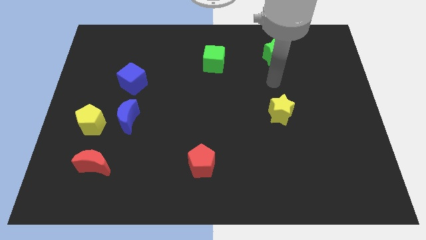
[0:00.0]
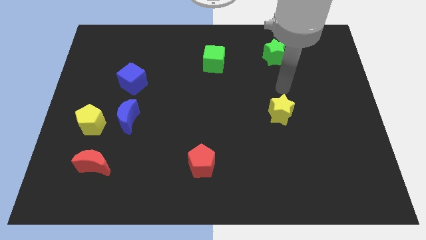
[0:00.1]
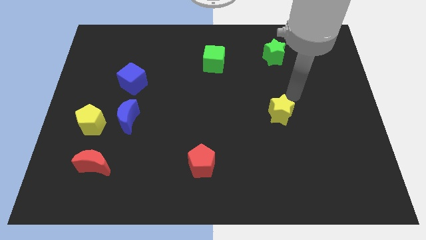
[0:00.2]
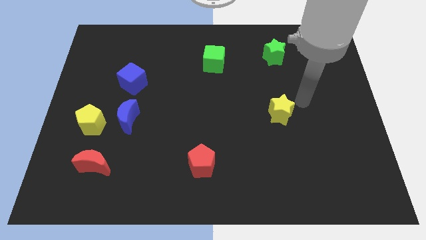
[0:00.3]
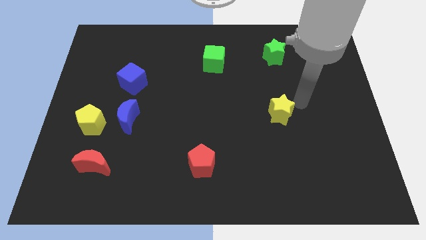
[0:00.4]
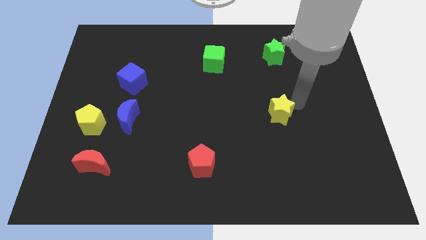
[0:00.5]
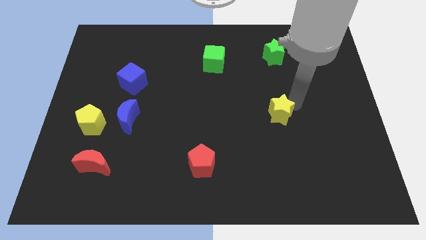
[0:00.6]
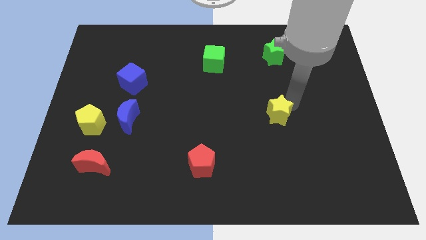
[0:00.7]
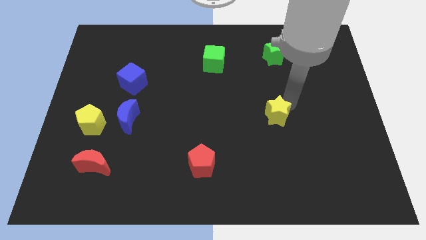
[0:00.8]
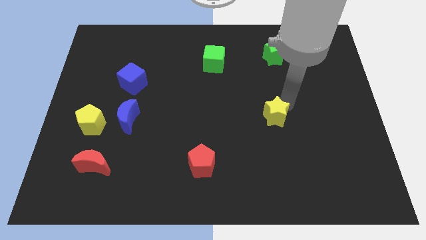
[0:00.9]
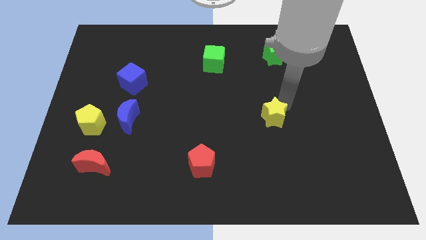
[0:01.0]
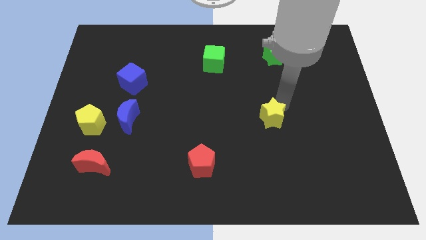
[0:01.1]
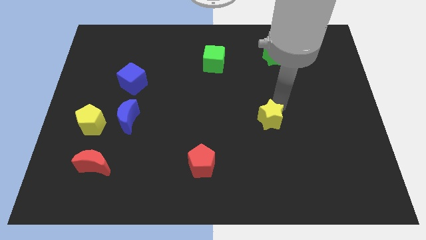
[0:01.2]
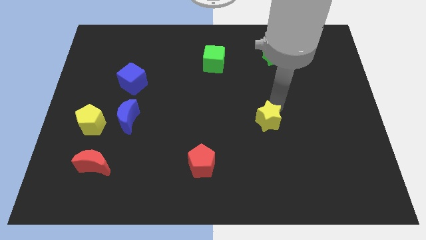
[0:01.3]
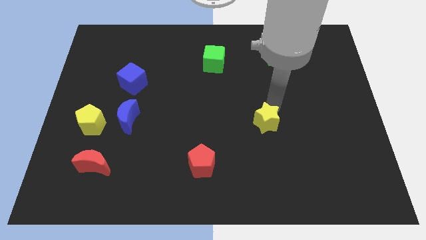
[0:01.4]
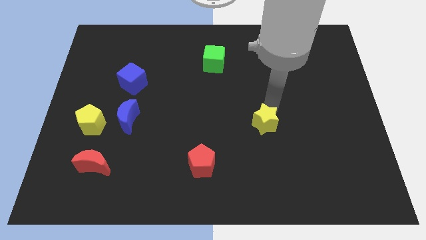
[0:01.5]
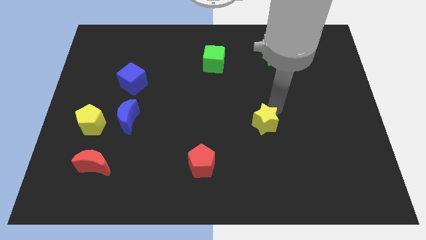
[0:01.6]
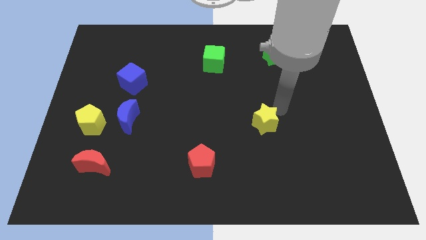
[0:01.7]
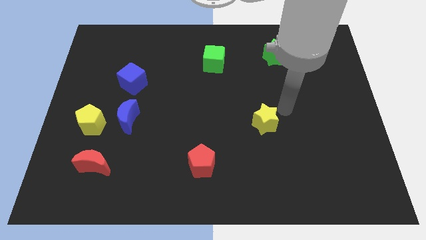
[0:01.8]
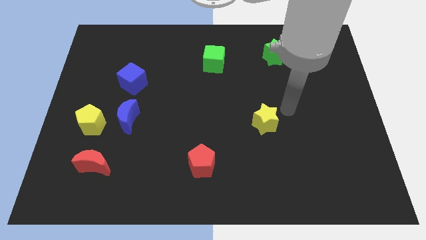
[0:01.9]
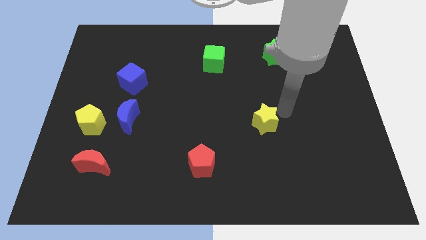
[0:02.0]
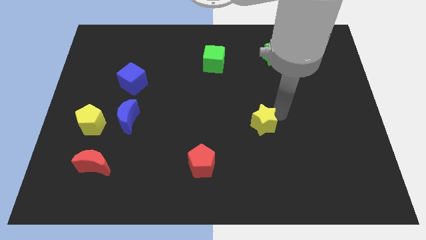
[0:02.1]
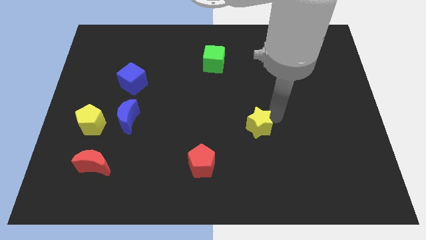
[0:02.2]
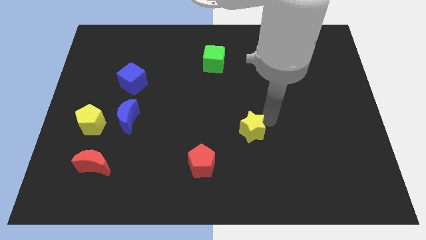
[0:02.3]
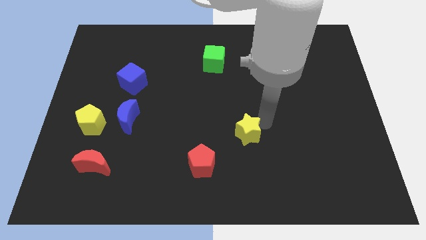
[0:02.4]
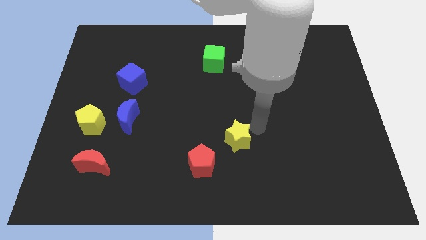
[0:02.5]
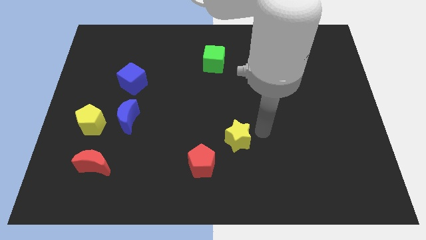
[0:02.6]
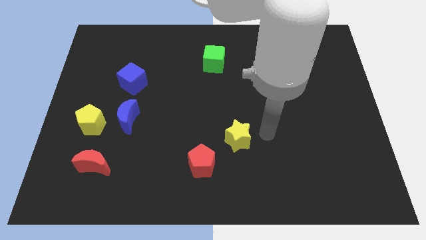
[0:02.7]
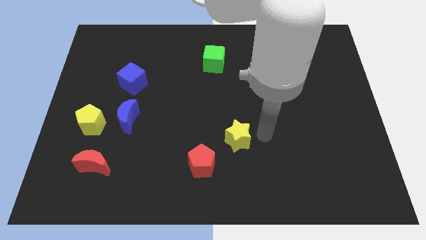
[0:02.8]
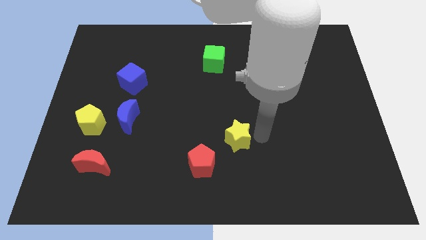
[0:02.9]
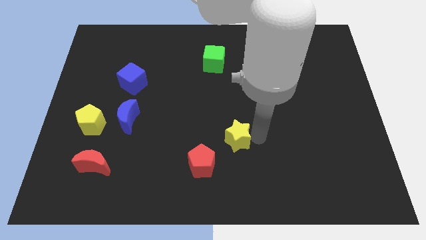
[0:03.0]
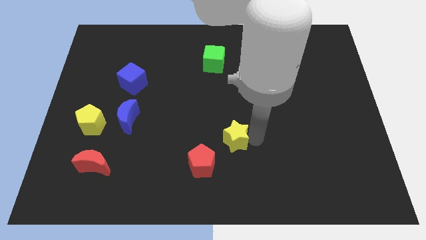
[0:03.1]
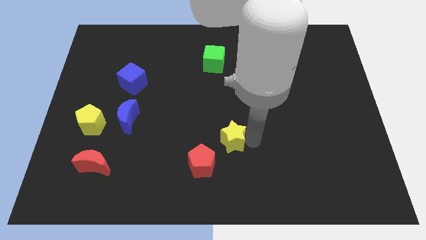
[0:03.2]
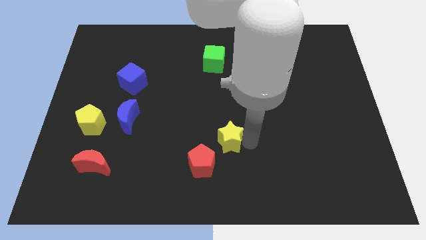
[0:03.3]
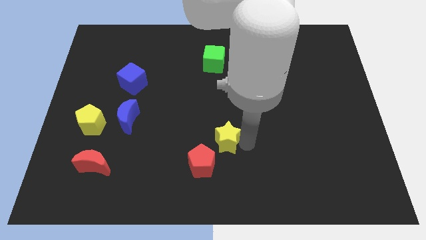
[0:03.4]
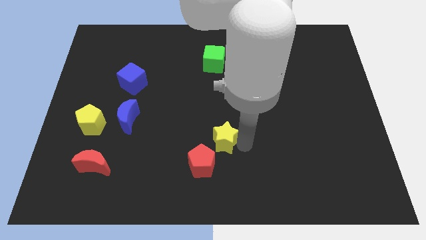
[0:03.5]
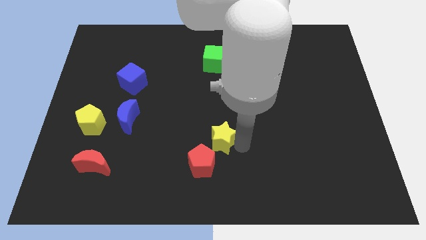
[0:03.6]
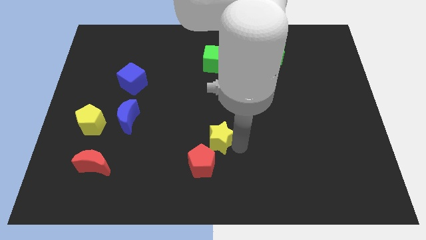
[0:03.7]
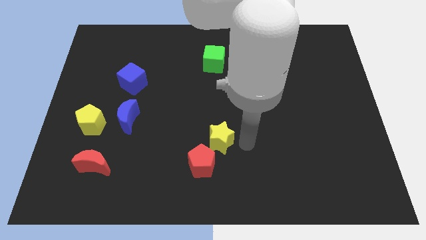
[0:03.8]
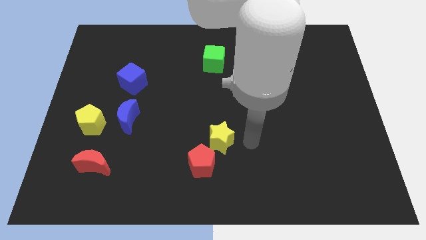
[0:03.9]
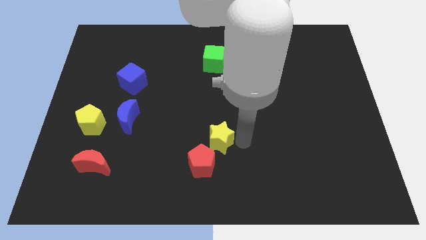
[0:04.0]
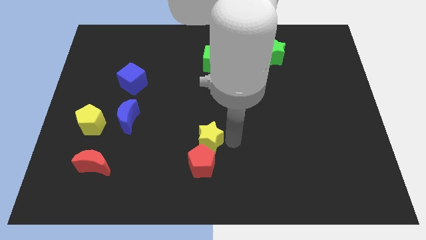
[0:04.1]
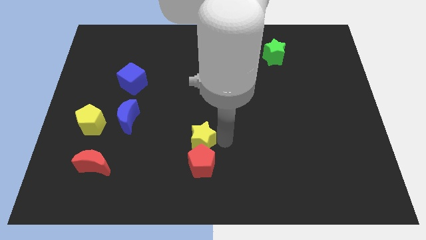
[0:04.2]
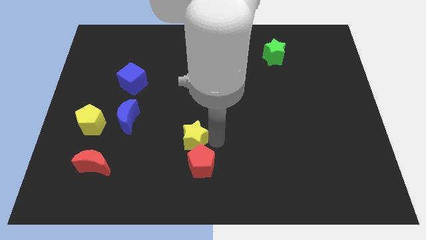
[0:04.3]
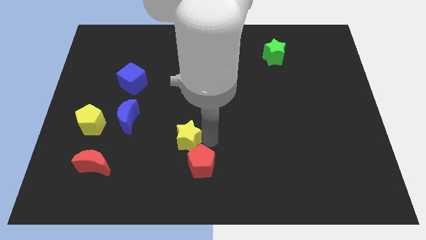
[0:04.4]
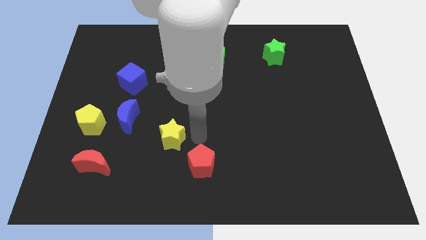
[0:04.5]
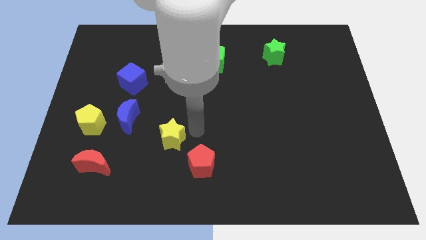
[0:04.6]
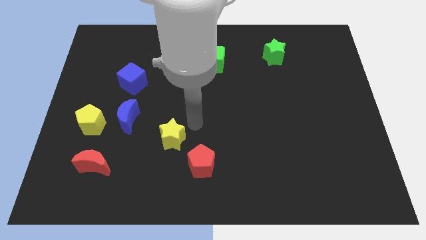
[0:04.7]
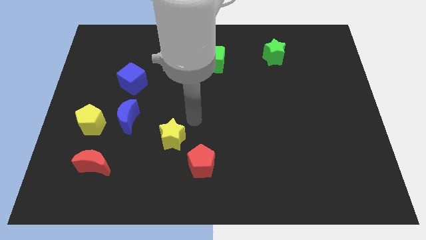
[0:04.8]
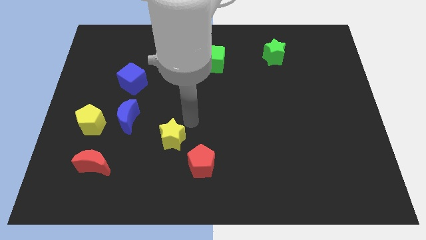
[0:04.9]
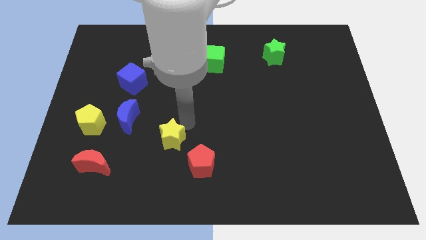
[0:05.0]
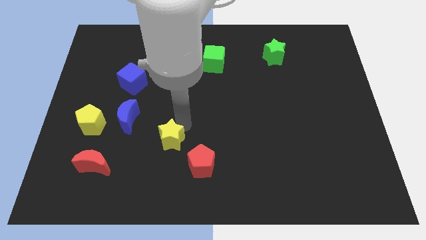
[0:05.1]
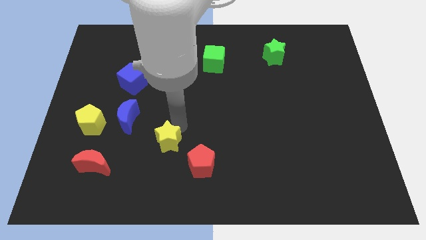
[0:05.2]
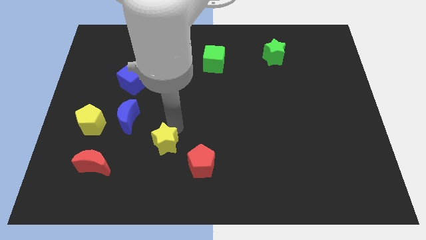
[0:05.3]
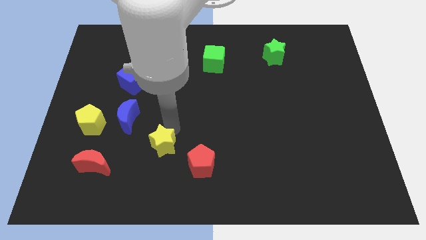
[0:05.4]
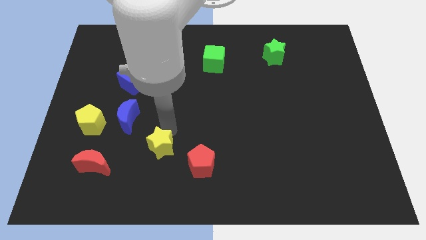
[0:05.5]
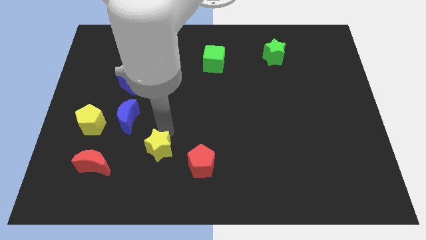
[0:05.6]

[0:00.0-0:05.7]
put the yellow star right of the red moon

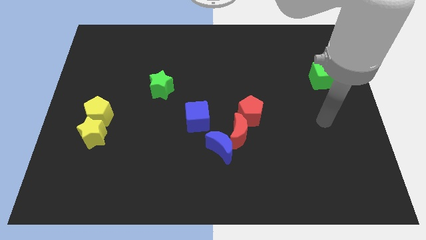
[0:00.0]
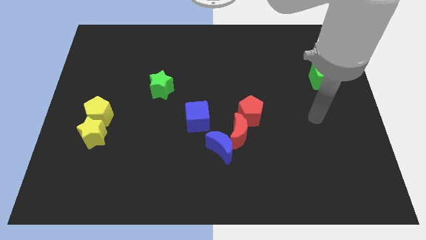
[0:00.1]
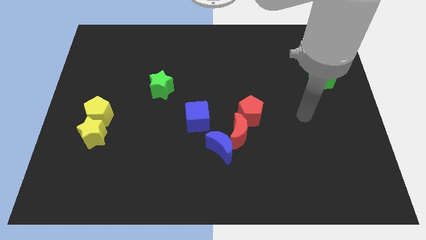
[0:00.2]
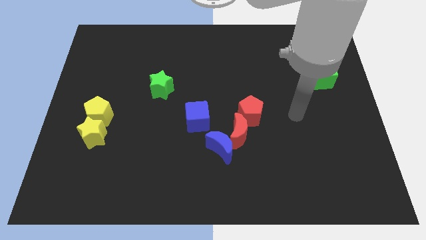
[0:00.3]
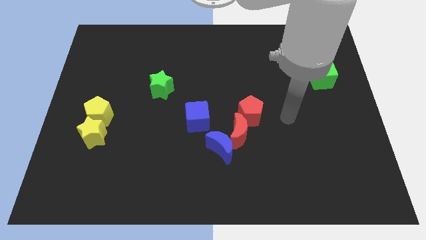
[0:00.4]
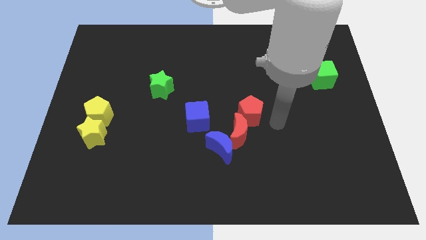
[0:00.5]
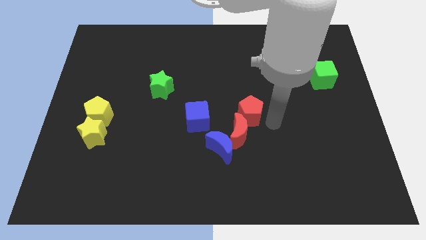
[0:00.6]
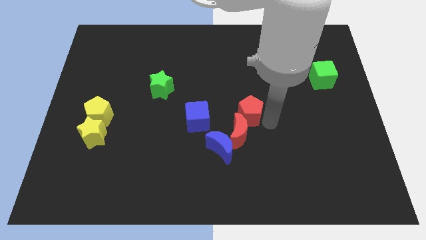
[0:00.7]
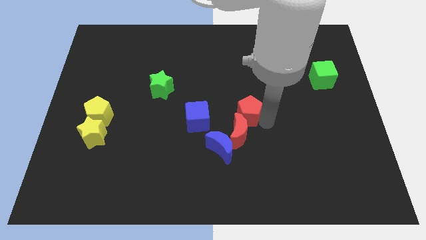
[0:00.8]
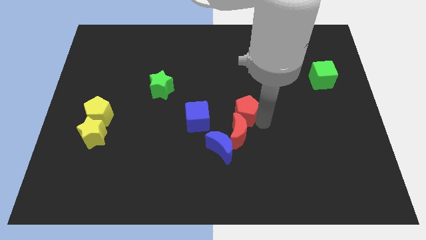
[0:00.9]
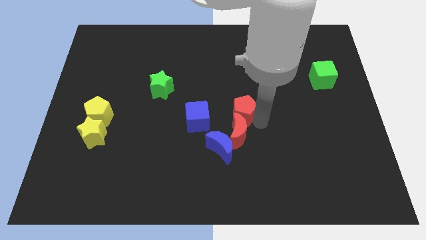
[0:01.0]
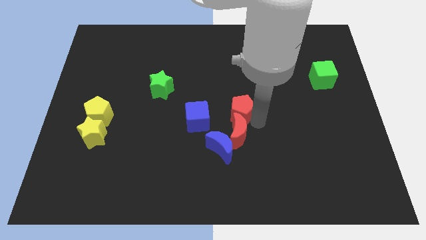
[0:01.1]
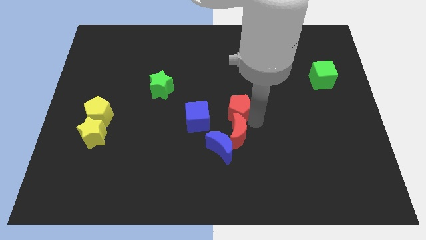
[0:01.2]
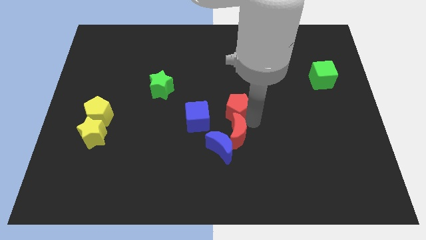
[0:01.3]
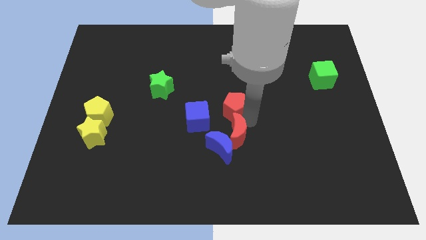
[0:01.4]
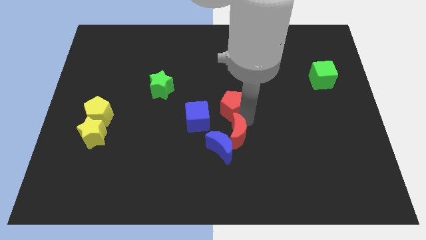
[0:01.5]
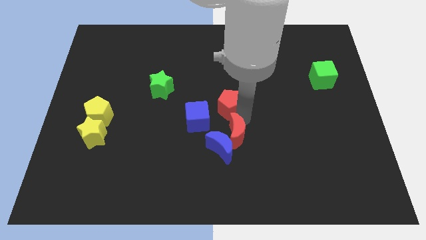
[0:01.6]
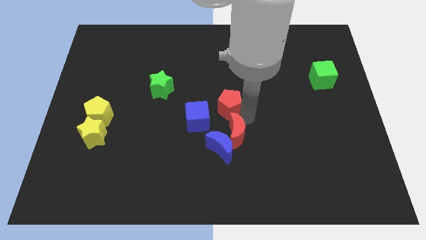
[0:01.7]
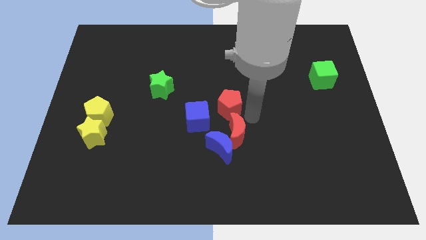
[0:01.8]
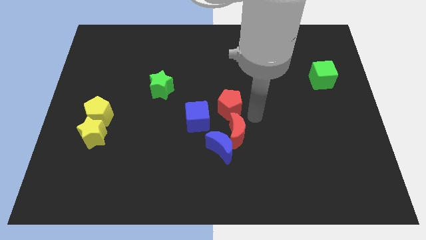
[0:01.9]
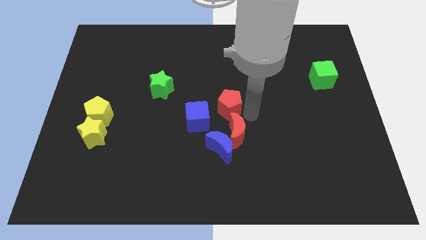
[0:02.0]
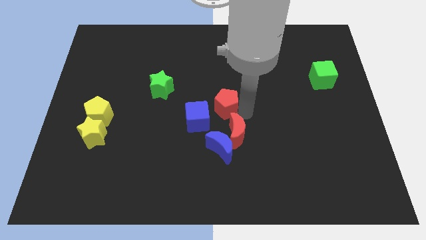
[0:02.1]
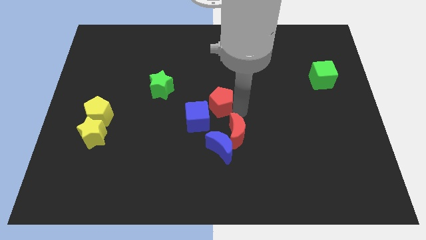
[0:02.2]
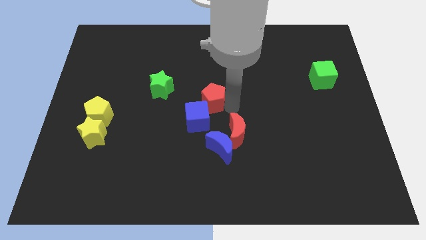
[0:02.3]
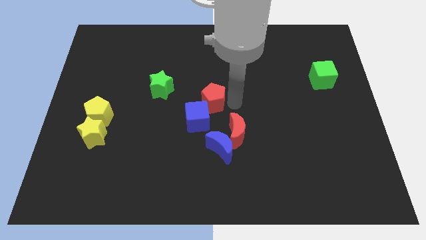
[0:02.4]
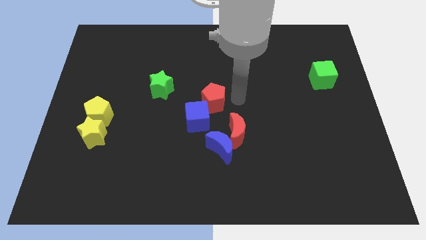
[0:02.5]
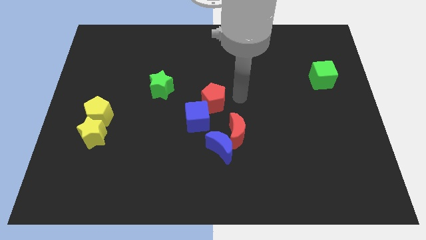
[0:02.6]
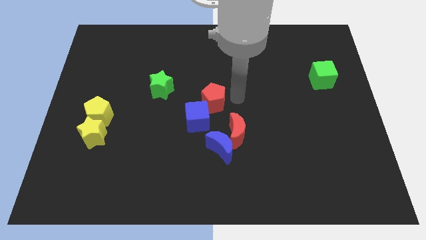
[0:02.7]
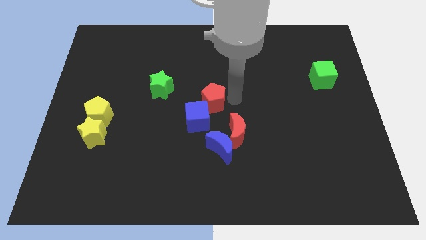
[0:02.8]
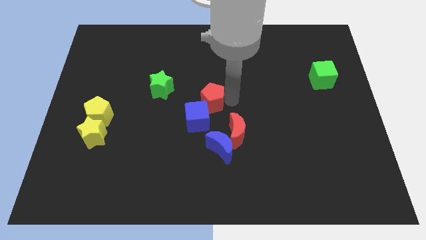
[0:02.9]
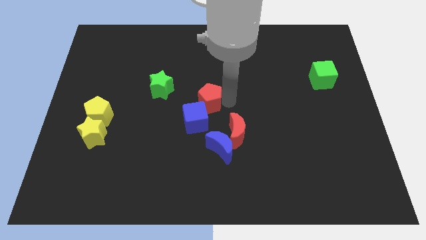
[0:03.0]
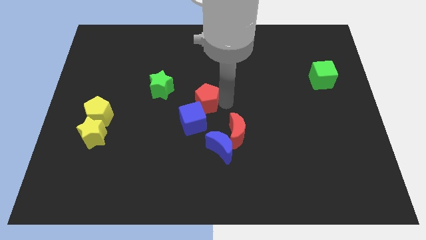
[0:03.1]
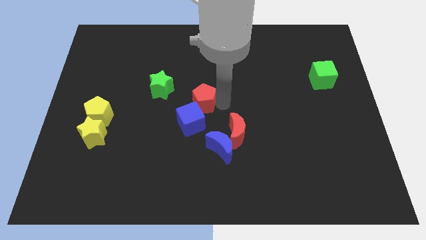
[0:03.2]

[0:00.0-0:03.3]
slide the red pentagon to the bottom right of the green star
